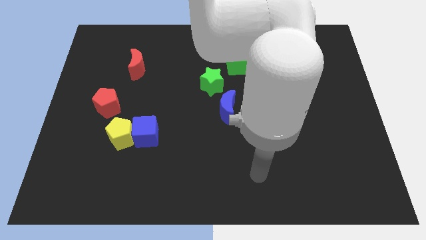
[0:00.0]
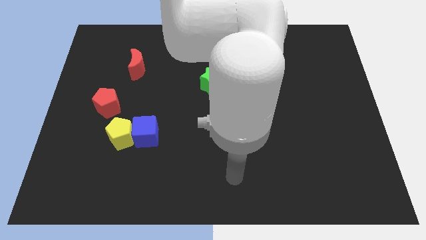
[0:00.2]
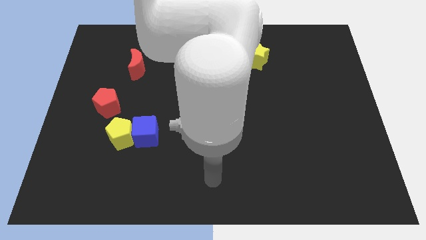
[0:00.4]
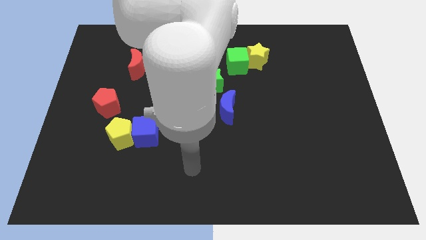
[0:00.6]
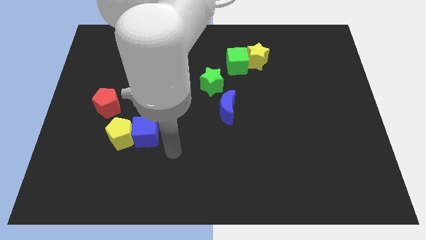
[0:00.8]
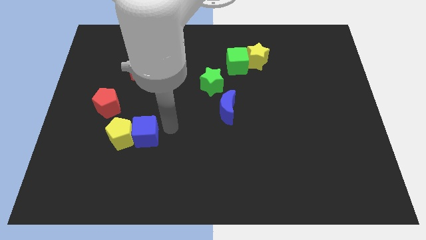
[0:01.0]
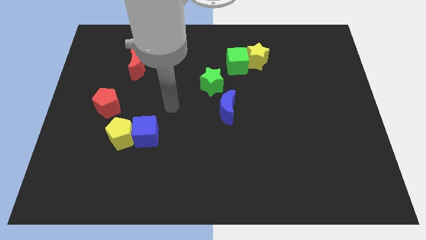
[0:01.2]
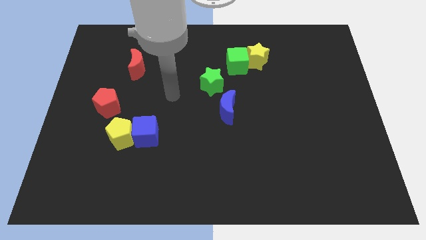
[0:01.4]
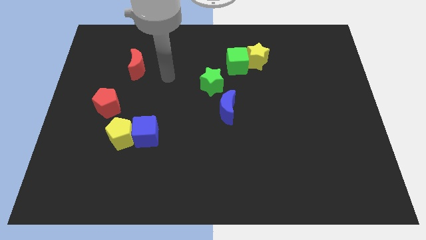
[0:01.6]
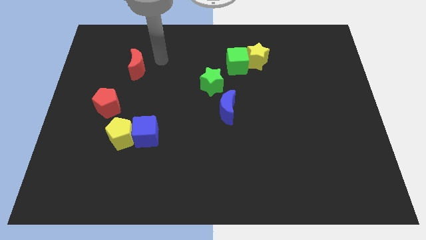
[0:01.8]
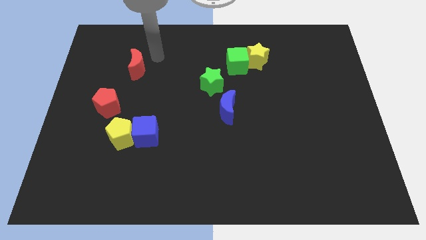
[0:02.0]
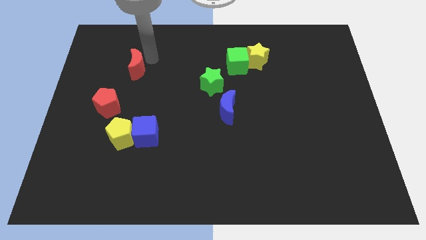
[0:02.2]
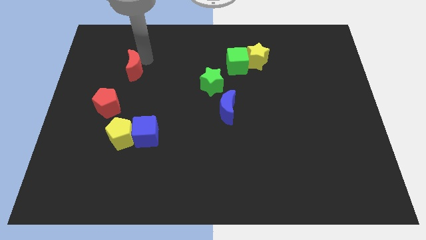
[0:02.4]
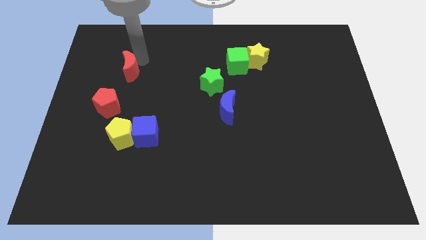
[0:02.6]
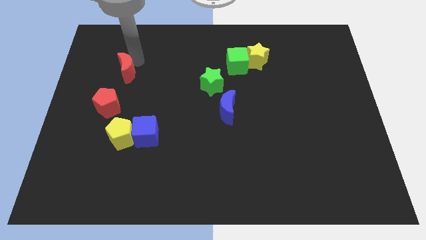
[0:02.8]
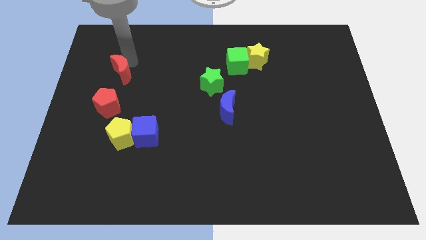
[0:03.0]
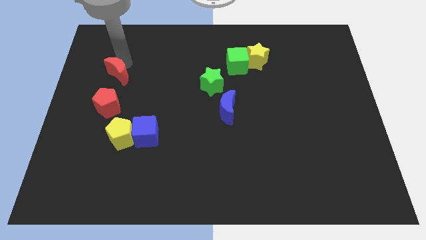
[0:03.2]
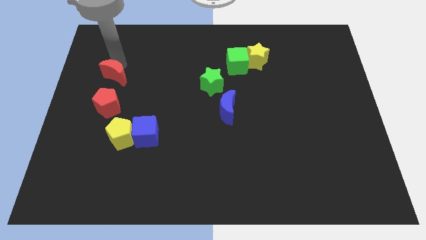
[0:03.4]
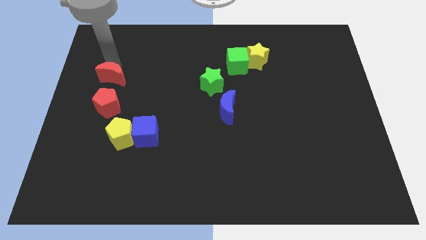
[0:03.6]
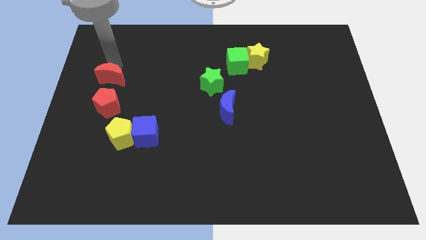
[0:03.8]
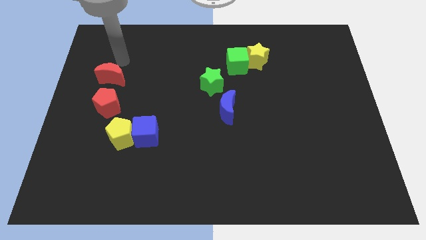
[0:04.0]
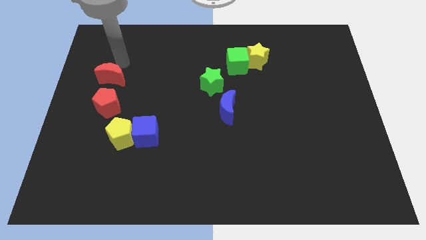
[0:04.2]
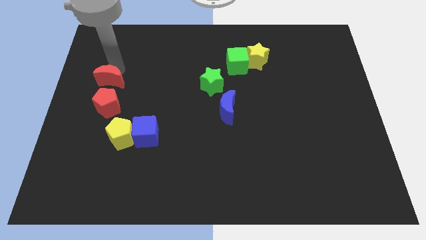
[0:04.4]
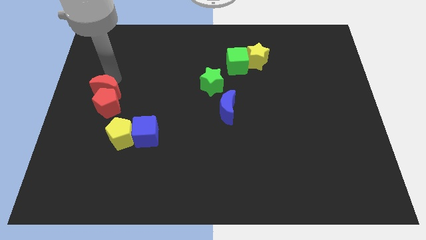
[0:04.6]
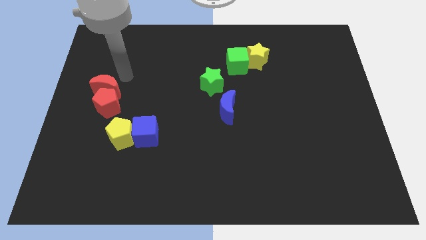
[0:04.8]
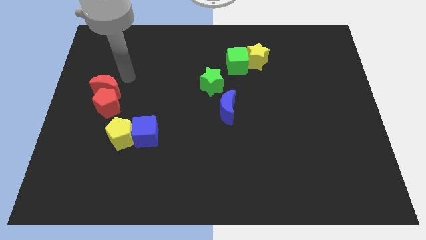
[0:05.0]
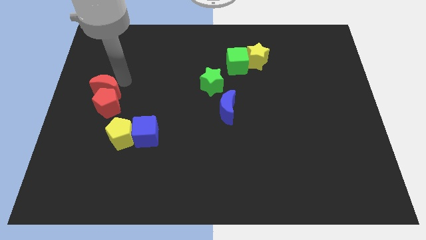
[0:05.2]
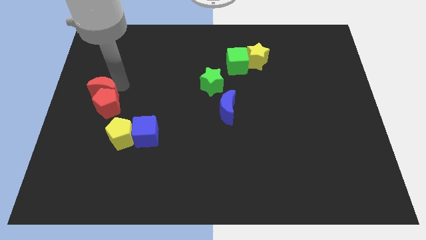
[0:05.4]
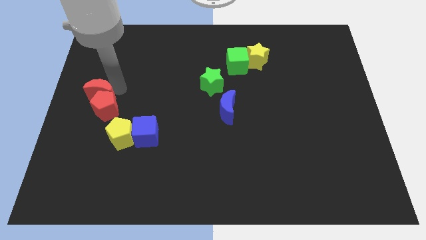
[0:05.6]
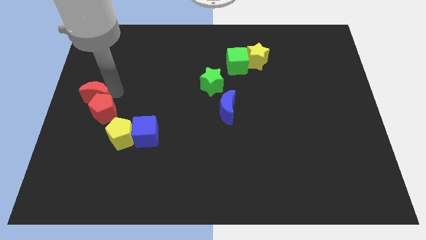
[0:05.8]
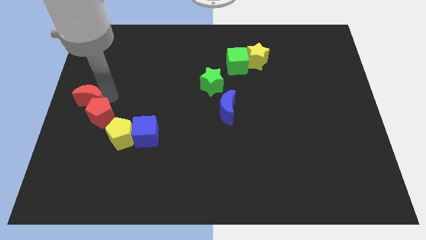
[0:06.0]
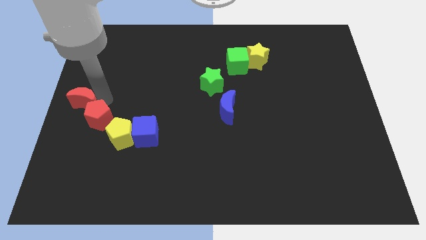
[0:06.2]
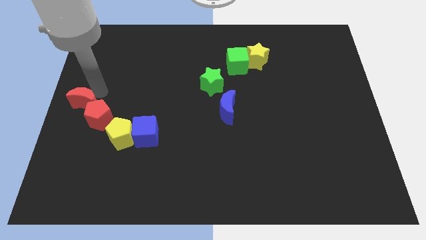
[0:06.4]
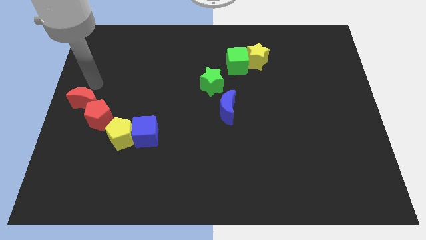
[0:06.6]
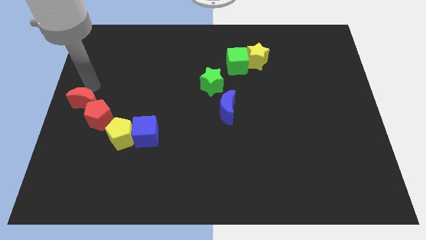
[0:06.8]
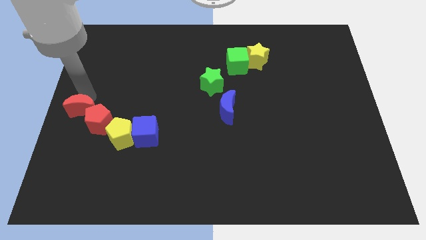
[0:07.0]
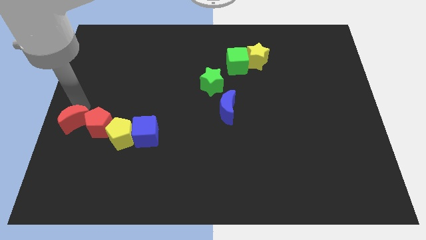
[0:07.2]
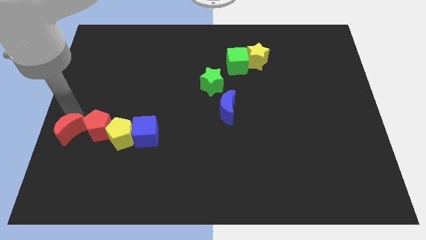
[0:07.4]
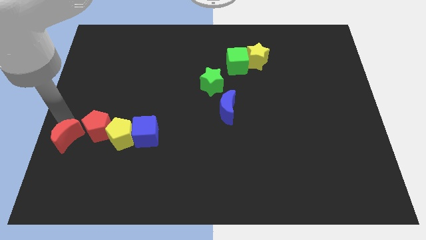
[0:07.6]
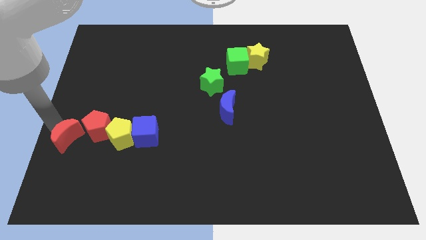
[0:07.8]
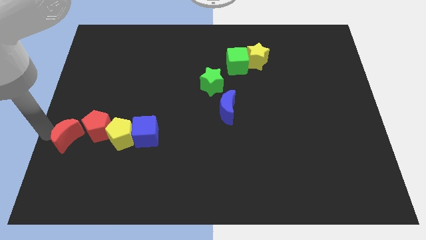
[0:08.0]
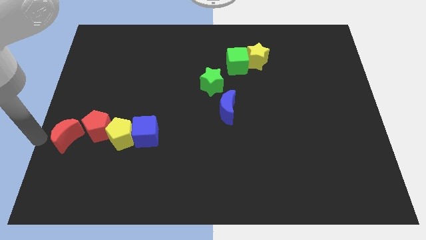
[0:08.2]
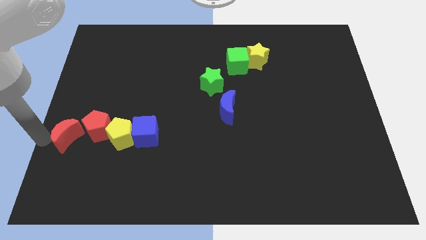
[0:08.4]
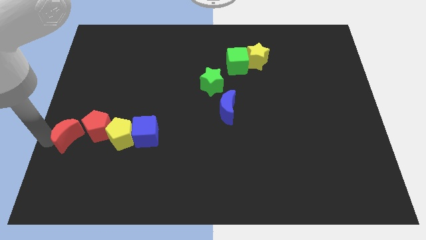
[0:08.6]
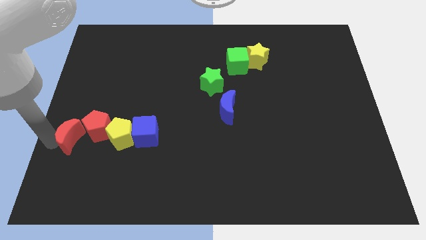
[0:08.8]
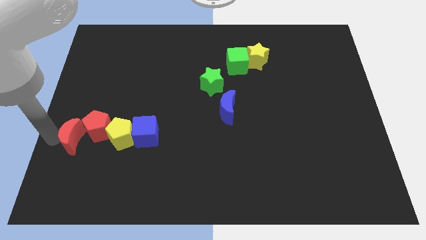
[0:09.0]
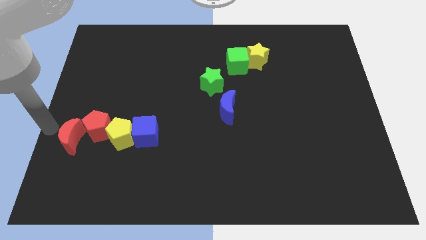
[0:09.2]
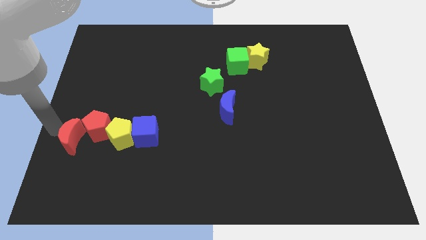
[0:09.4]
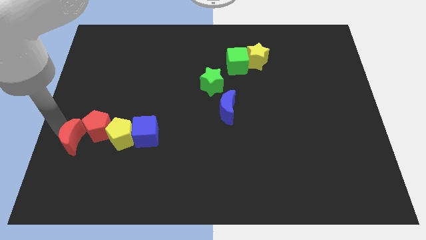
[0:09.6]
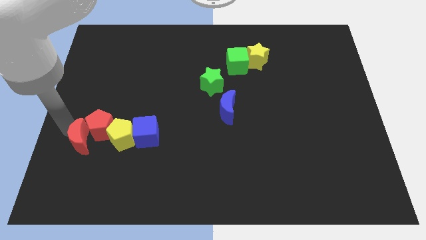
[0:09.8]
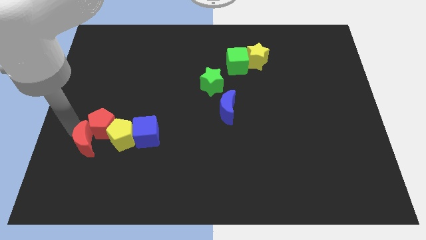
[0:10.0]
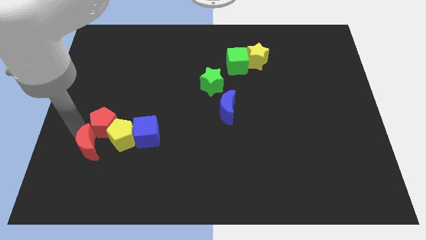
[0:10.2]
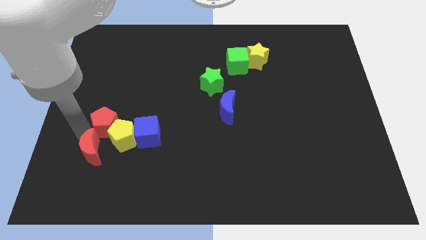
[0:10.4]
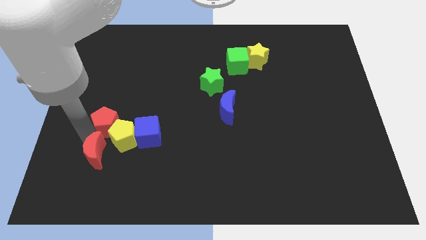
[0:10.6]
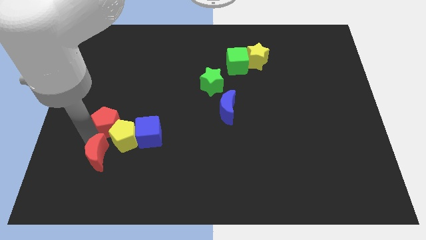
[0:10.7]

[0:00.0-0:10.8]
slide the red moon to the bottom left of the blue cube

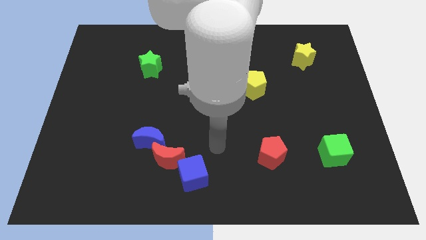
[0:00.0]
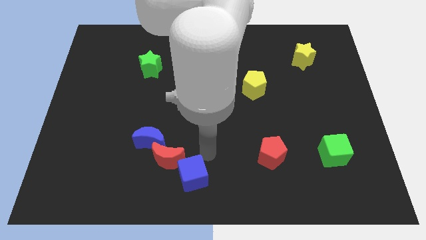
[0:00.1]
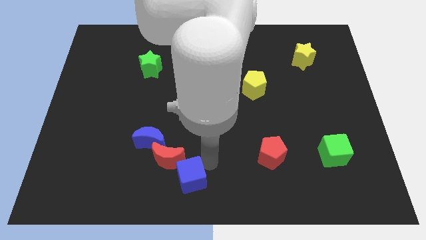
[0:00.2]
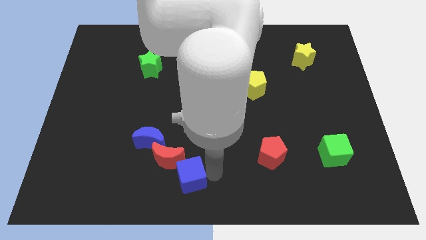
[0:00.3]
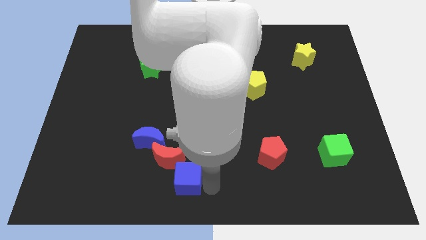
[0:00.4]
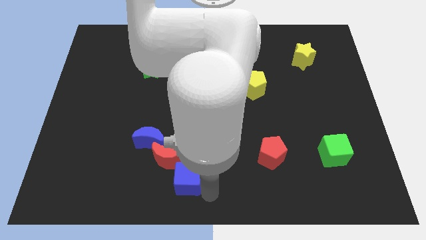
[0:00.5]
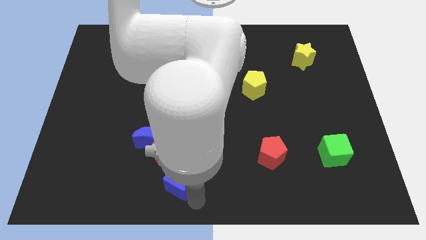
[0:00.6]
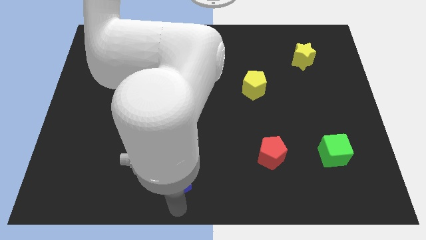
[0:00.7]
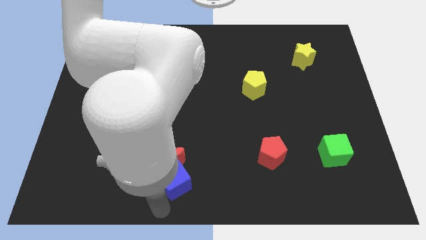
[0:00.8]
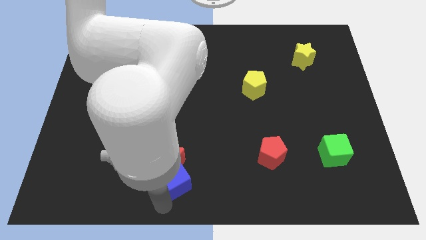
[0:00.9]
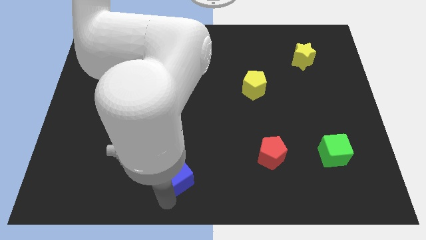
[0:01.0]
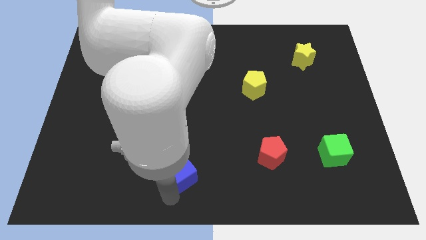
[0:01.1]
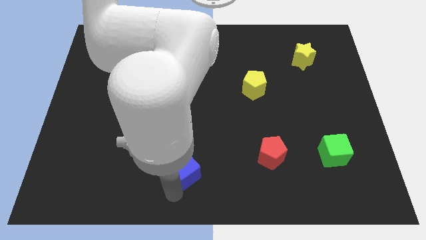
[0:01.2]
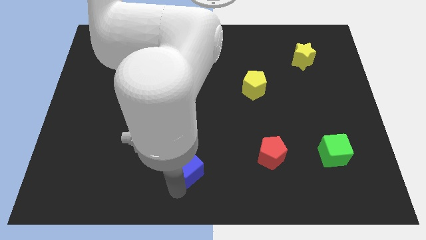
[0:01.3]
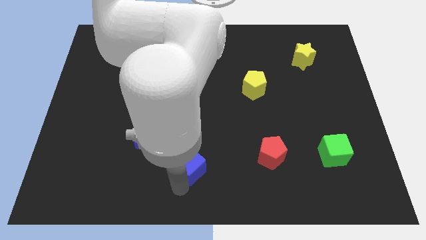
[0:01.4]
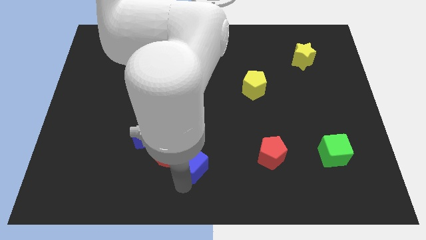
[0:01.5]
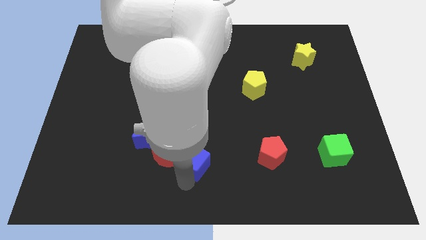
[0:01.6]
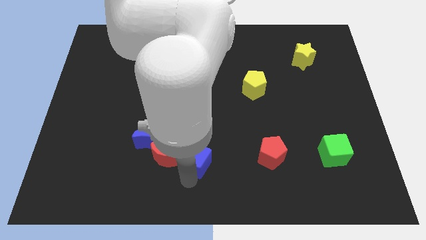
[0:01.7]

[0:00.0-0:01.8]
push the blue cube to the right side of the blue moon
